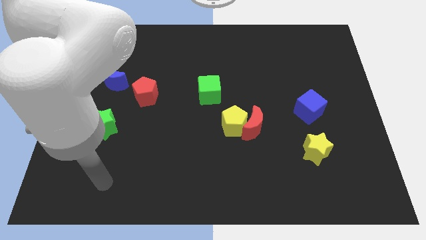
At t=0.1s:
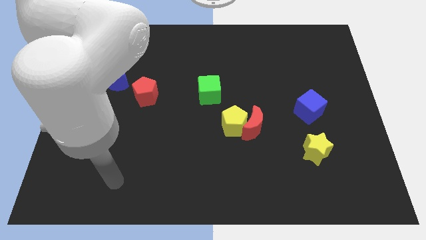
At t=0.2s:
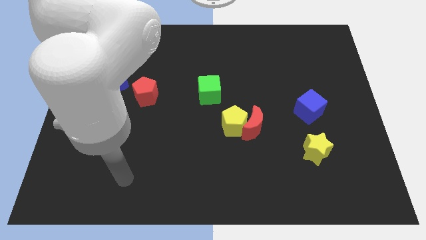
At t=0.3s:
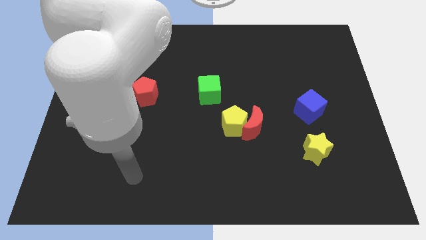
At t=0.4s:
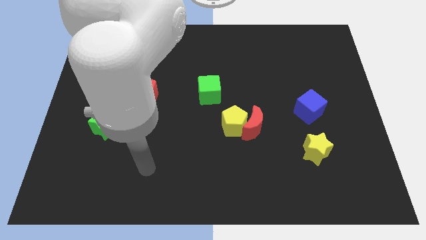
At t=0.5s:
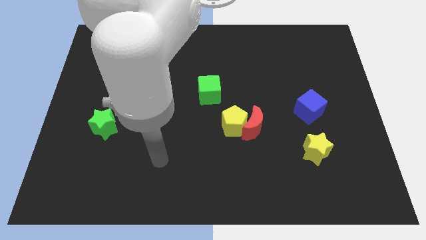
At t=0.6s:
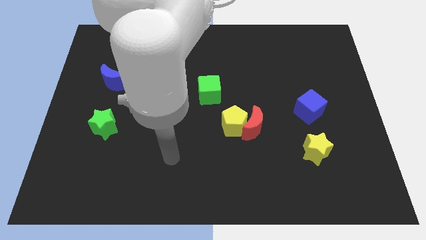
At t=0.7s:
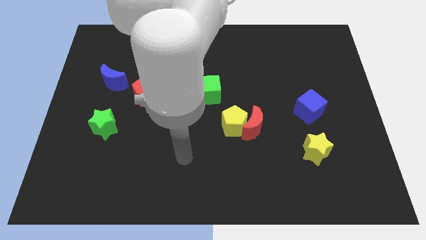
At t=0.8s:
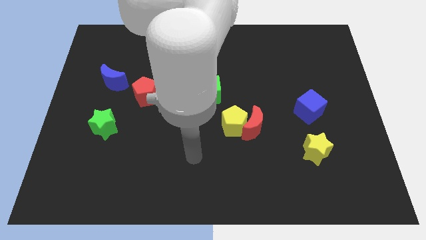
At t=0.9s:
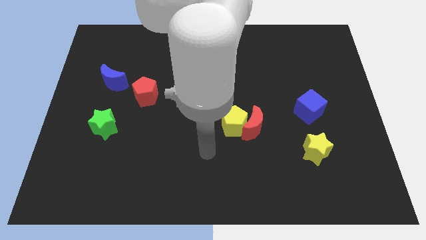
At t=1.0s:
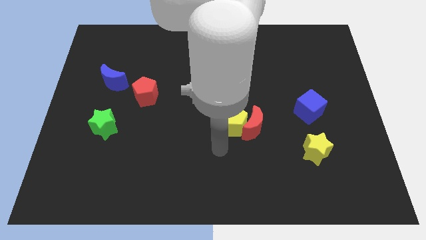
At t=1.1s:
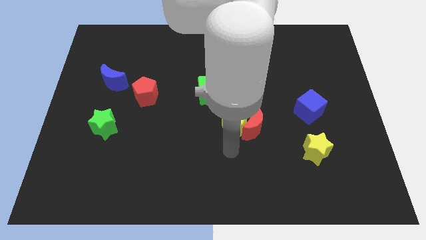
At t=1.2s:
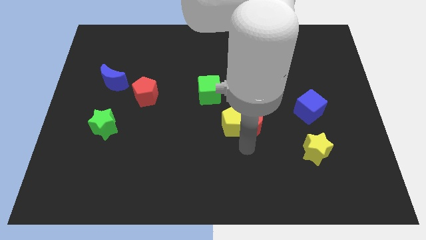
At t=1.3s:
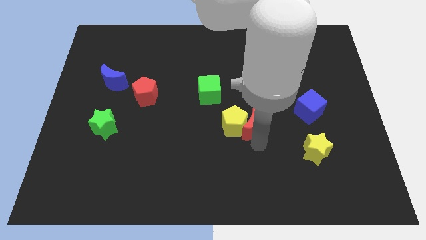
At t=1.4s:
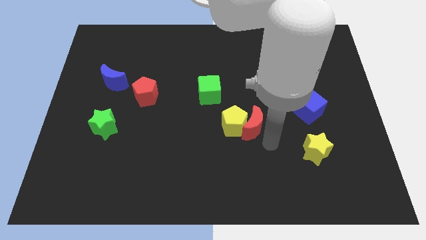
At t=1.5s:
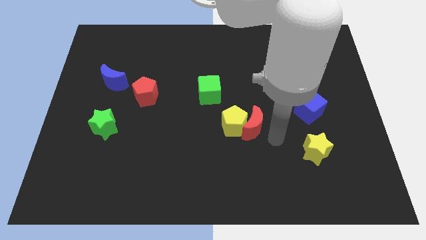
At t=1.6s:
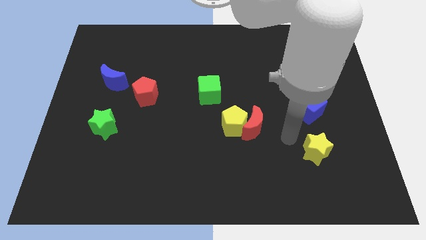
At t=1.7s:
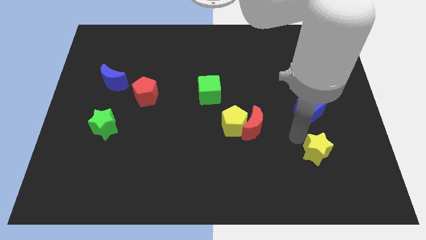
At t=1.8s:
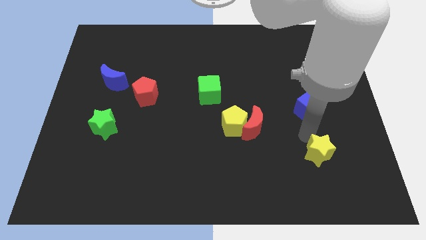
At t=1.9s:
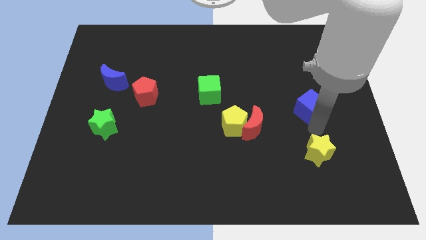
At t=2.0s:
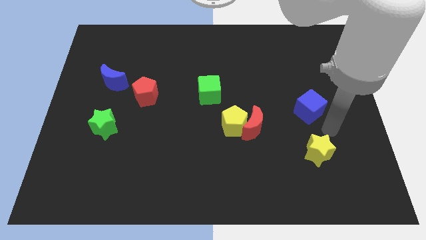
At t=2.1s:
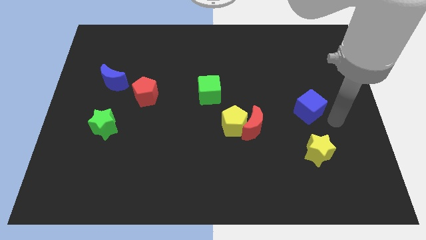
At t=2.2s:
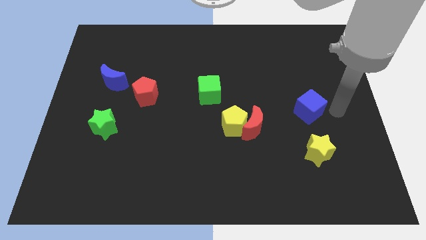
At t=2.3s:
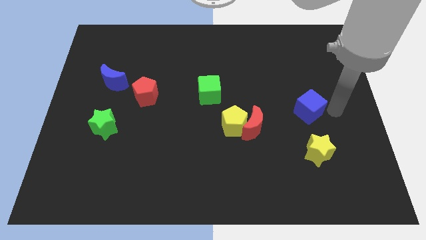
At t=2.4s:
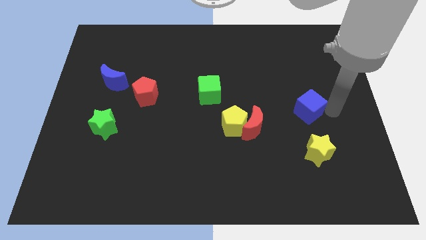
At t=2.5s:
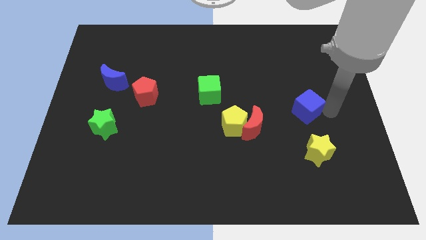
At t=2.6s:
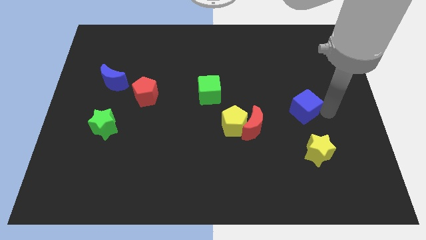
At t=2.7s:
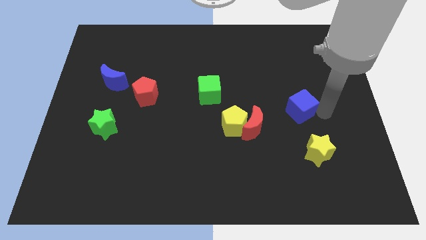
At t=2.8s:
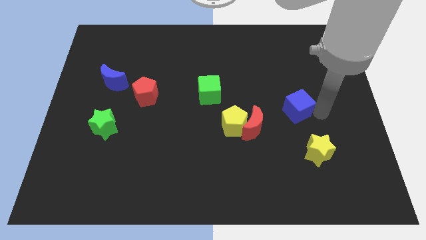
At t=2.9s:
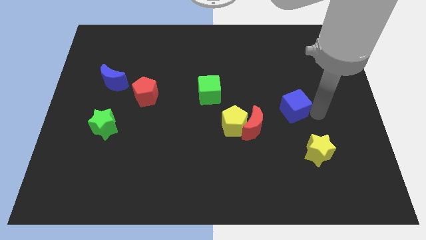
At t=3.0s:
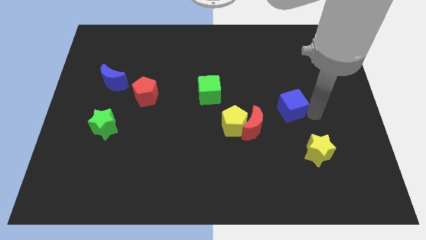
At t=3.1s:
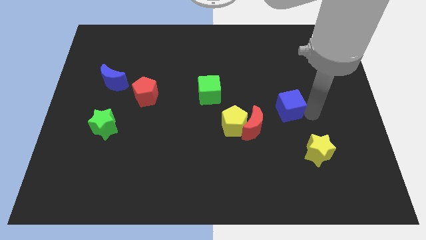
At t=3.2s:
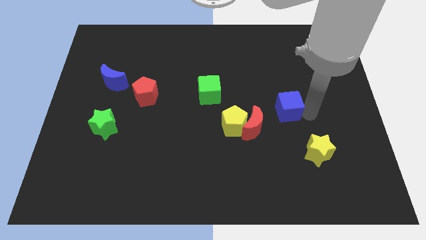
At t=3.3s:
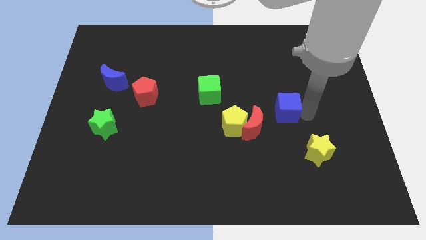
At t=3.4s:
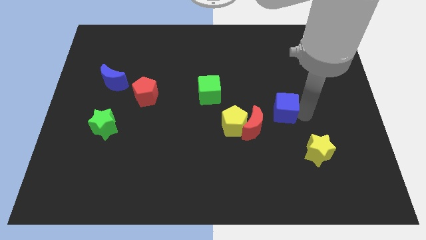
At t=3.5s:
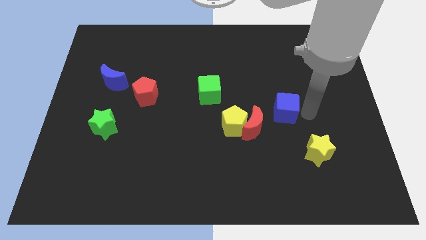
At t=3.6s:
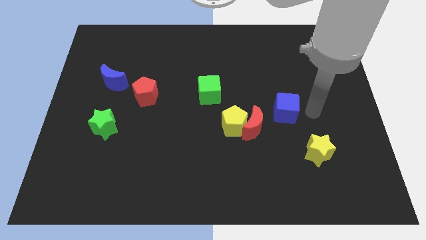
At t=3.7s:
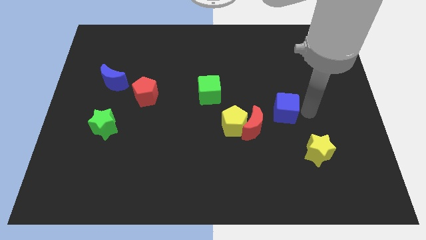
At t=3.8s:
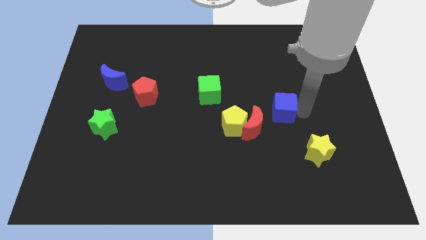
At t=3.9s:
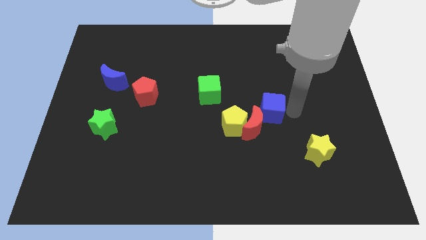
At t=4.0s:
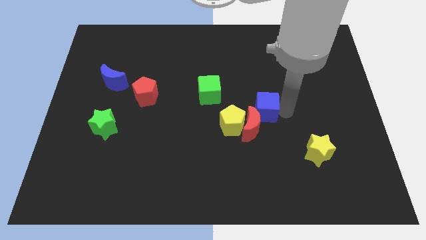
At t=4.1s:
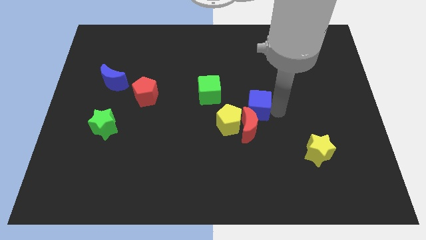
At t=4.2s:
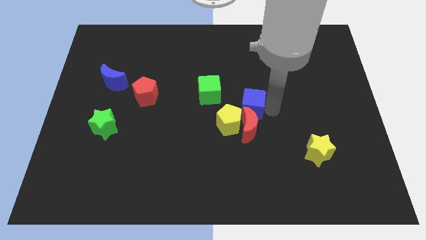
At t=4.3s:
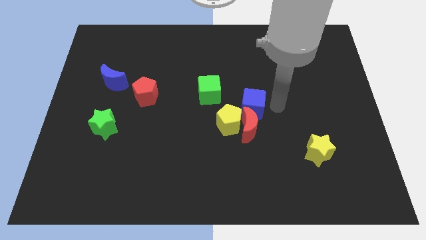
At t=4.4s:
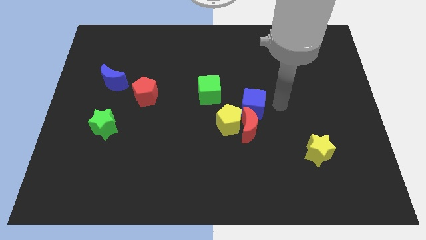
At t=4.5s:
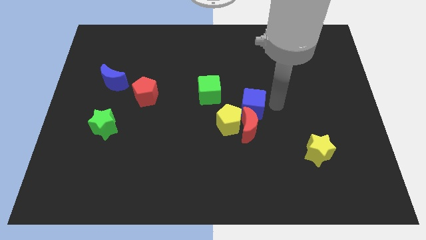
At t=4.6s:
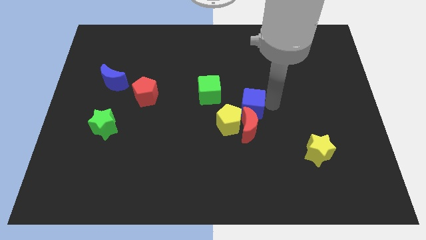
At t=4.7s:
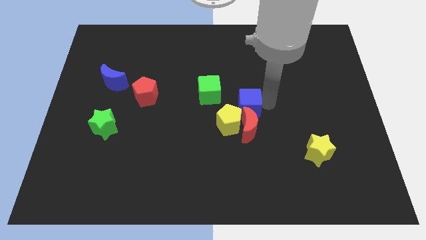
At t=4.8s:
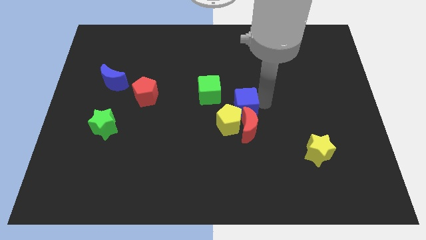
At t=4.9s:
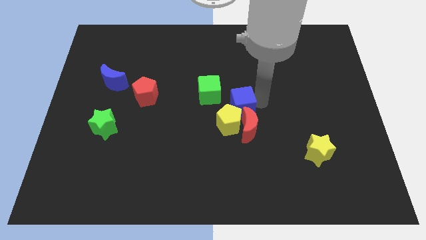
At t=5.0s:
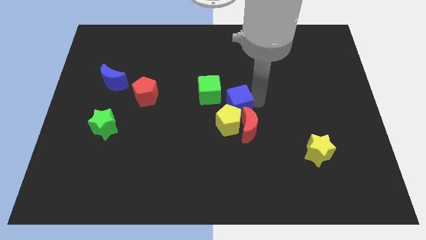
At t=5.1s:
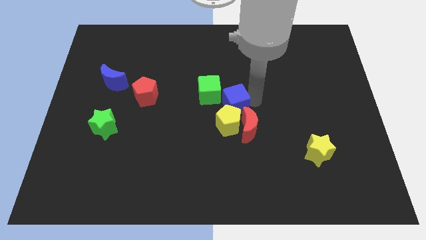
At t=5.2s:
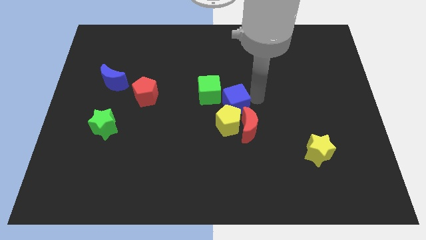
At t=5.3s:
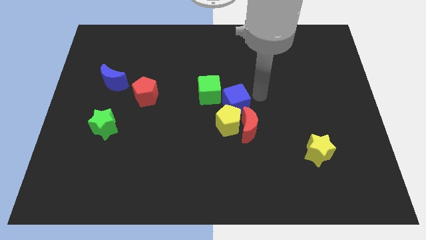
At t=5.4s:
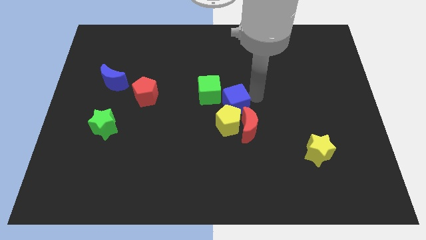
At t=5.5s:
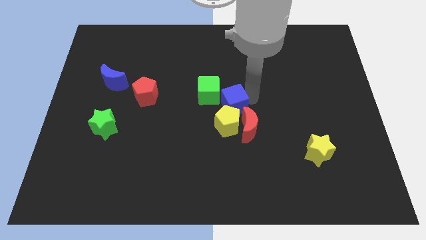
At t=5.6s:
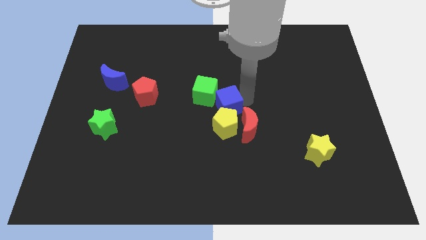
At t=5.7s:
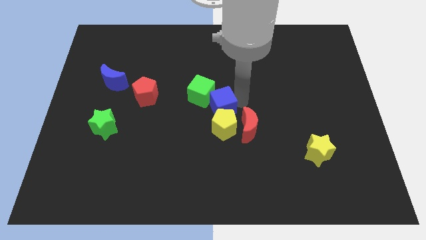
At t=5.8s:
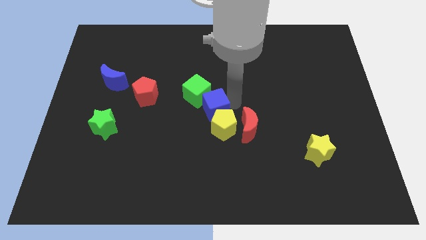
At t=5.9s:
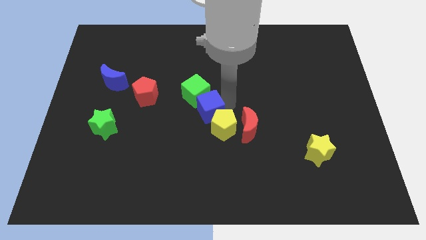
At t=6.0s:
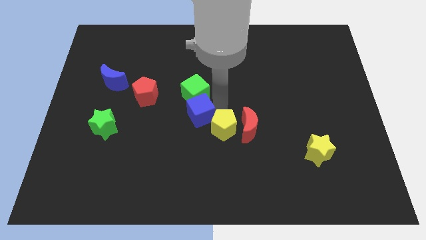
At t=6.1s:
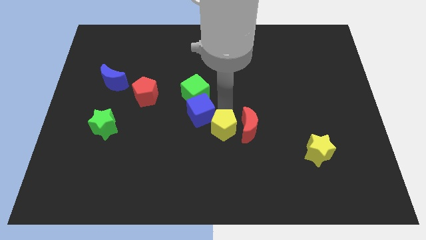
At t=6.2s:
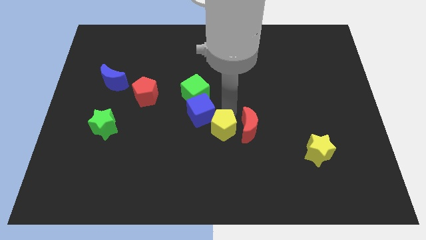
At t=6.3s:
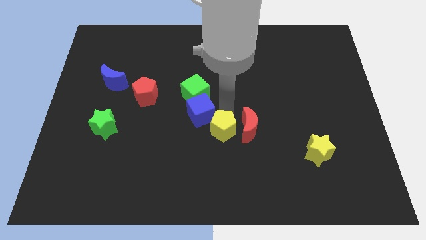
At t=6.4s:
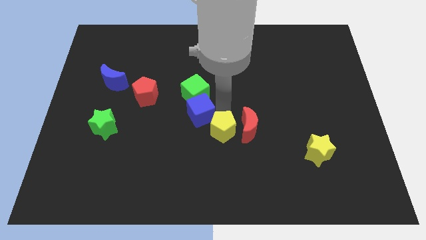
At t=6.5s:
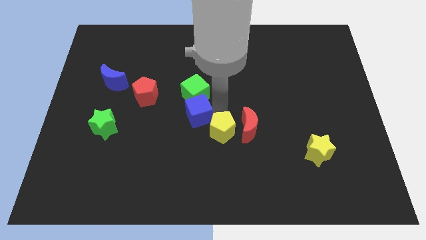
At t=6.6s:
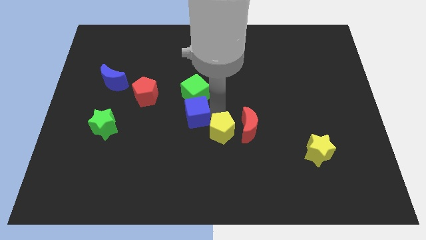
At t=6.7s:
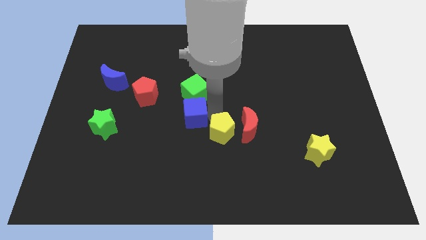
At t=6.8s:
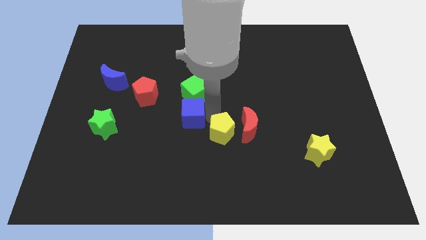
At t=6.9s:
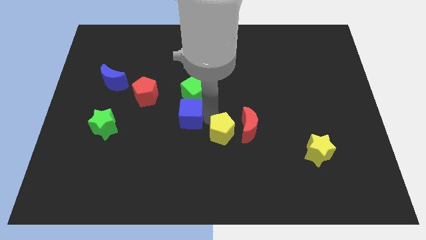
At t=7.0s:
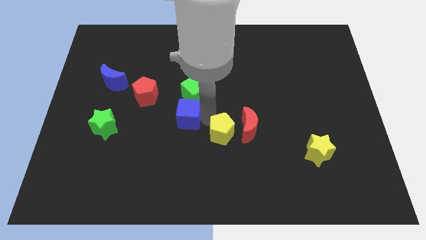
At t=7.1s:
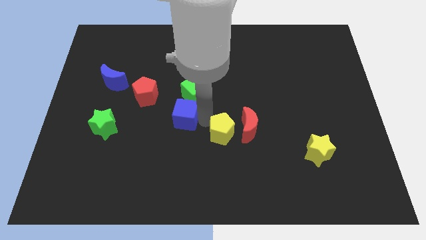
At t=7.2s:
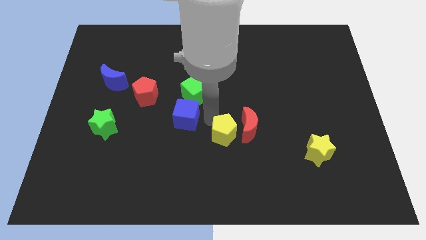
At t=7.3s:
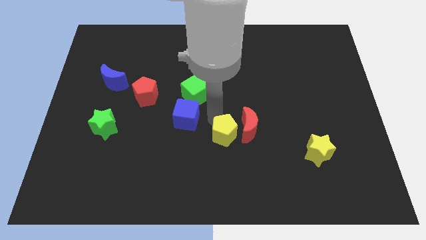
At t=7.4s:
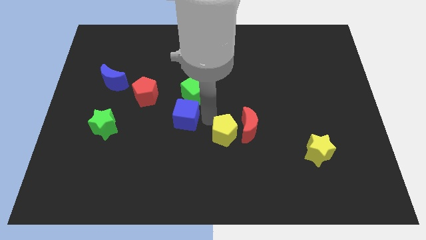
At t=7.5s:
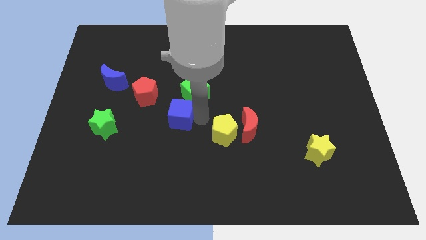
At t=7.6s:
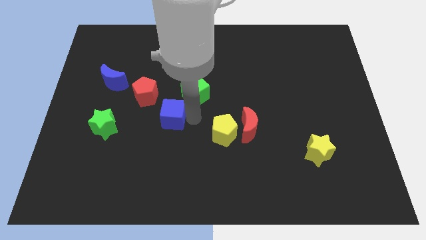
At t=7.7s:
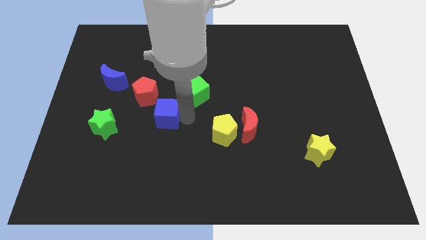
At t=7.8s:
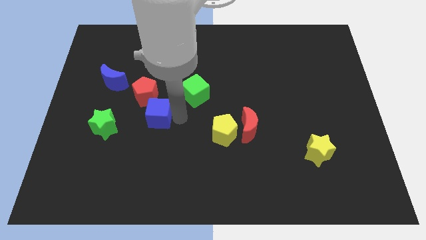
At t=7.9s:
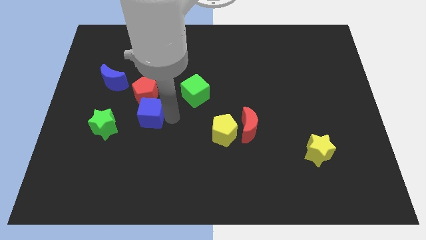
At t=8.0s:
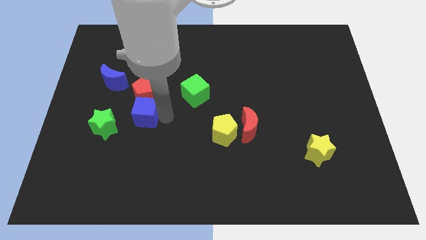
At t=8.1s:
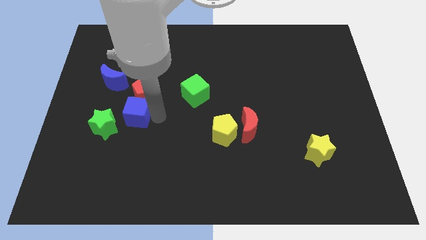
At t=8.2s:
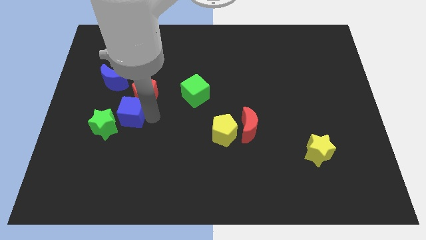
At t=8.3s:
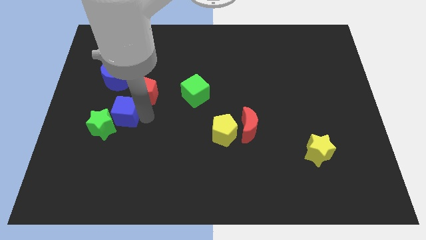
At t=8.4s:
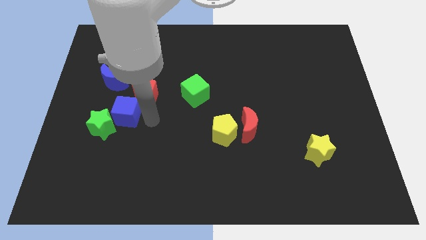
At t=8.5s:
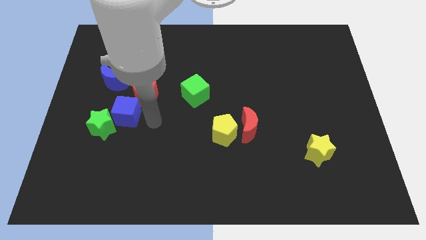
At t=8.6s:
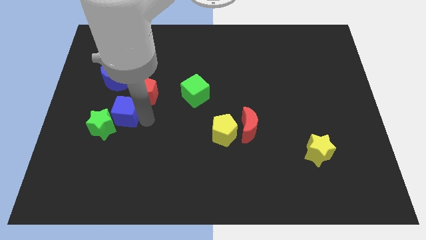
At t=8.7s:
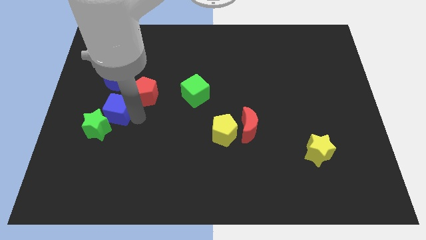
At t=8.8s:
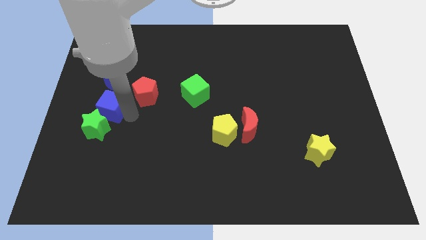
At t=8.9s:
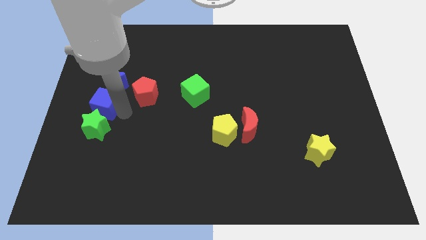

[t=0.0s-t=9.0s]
slide the blue cube to the center left
